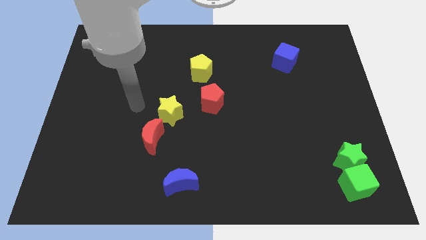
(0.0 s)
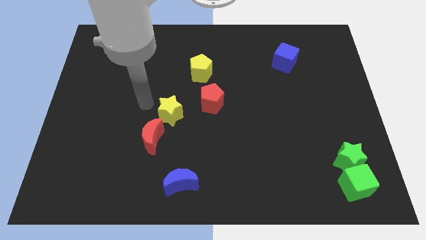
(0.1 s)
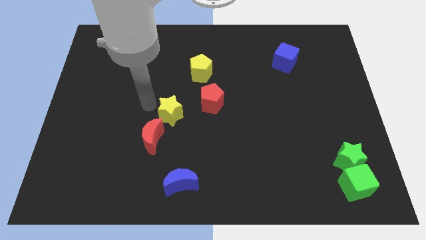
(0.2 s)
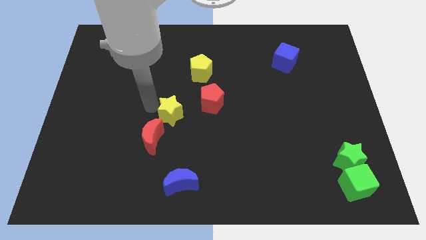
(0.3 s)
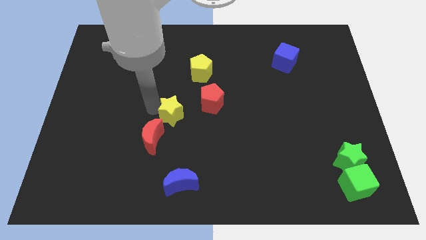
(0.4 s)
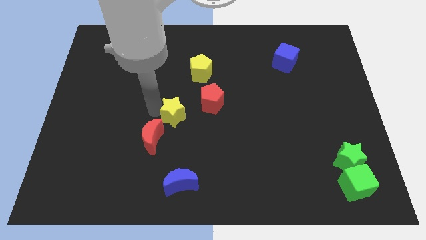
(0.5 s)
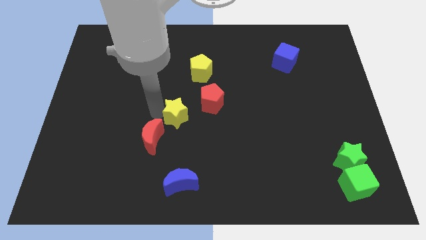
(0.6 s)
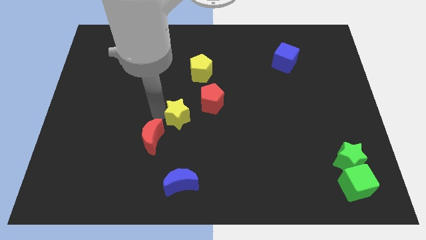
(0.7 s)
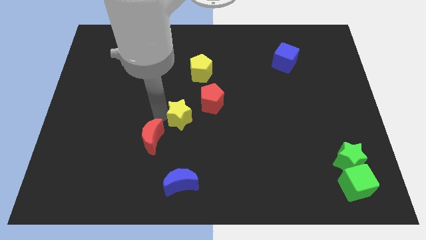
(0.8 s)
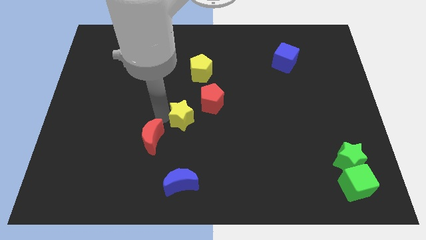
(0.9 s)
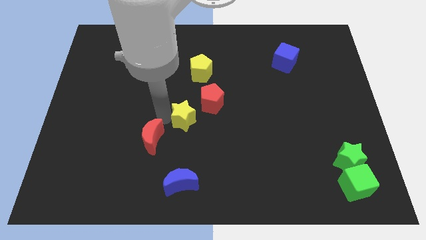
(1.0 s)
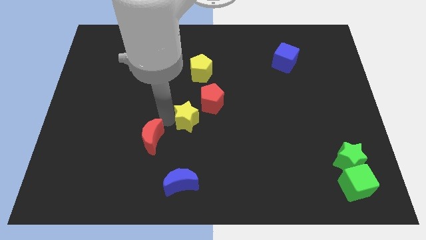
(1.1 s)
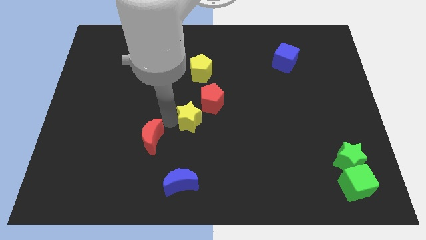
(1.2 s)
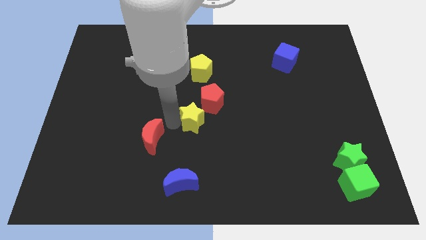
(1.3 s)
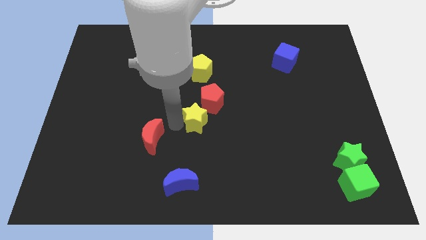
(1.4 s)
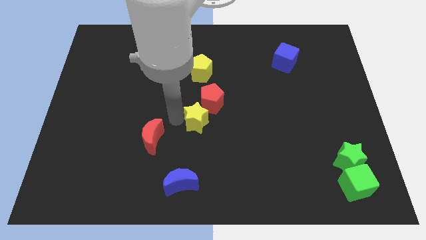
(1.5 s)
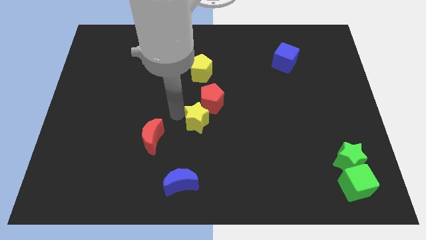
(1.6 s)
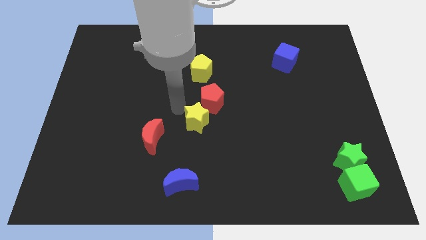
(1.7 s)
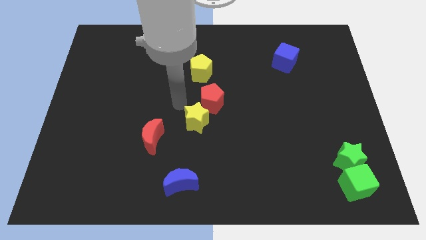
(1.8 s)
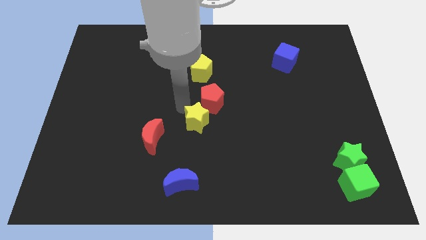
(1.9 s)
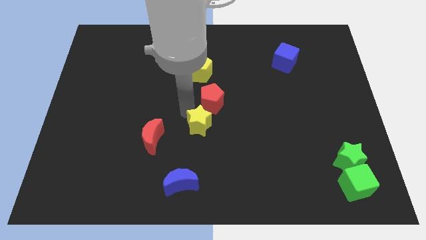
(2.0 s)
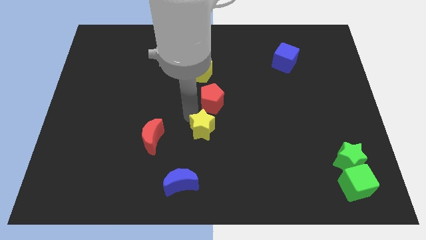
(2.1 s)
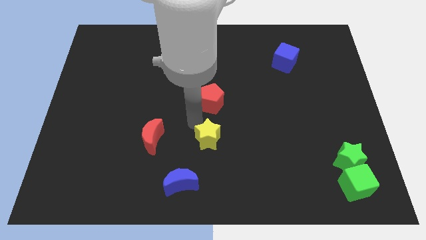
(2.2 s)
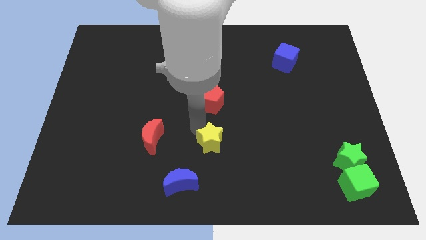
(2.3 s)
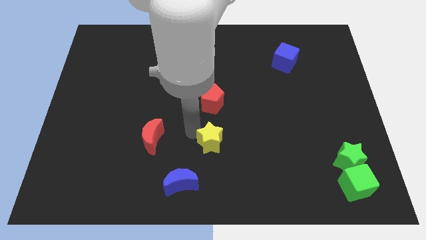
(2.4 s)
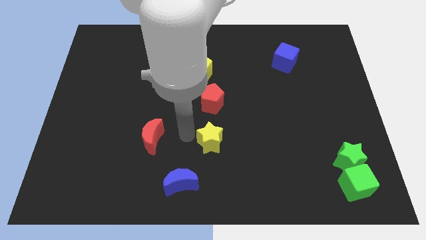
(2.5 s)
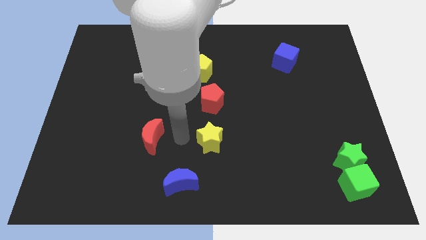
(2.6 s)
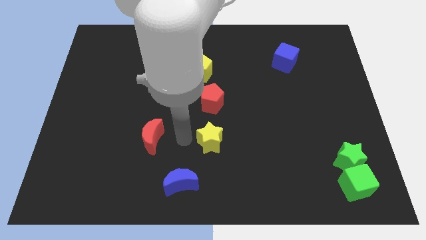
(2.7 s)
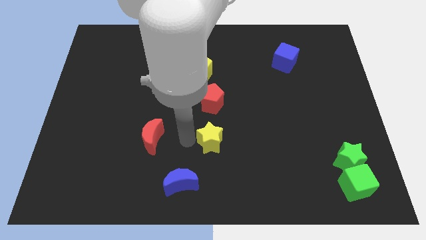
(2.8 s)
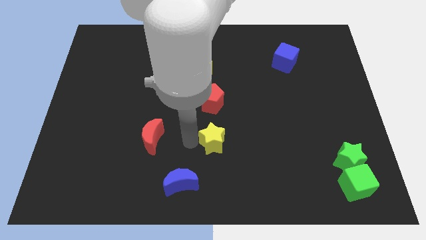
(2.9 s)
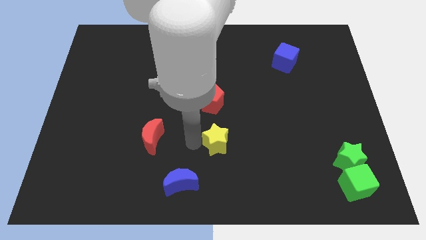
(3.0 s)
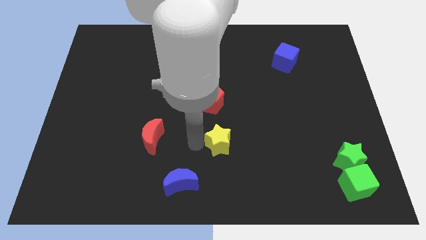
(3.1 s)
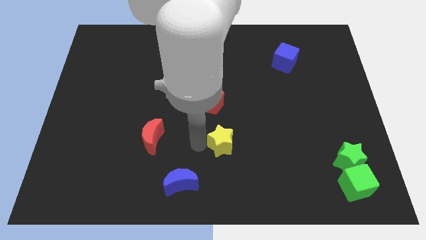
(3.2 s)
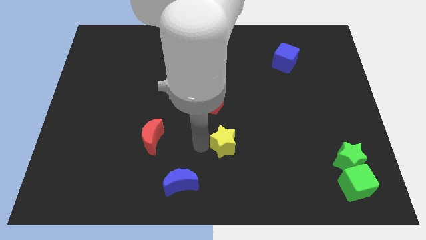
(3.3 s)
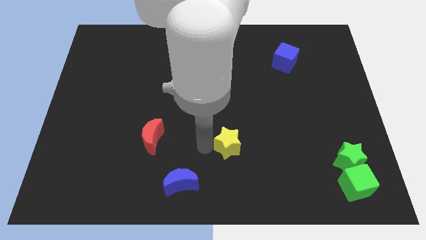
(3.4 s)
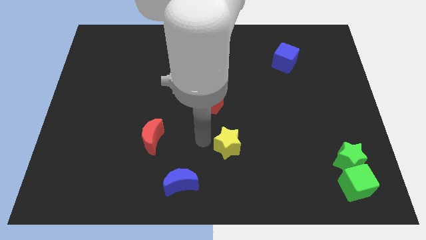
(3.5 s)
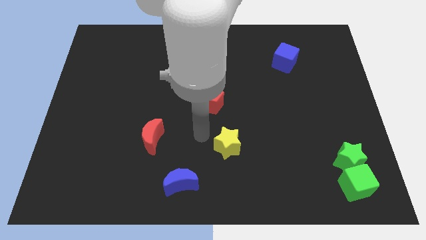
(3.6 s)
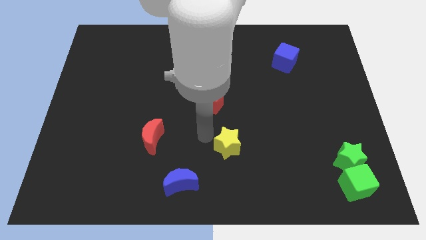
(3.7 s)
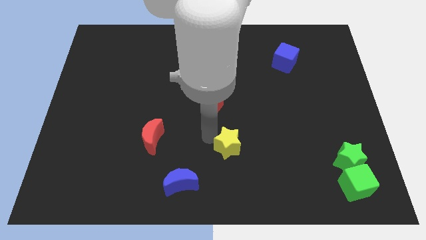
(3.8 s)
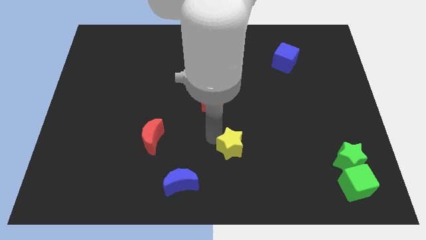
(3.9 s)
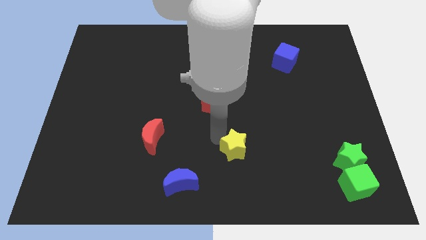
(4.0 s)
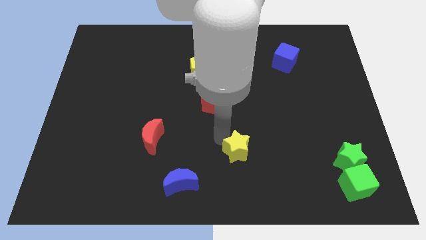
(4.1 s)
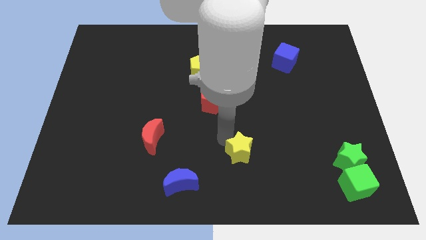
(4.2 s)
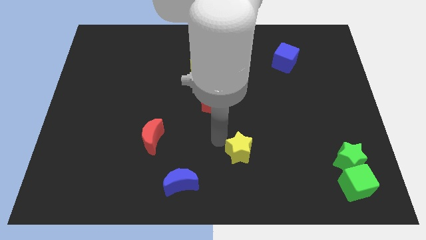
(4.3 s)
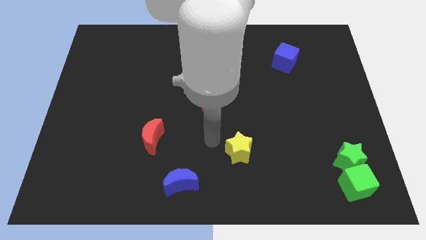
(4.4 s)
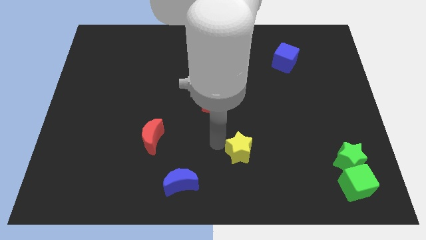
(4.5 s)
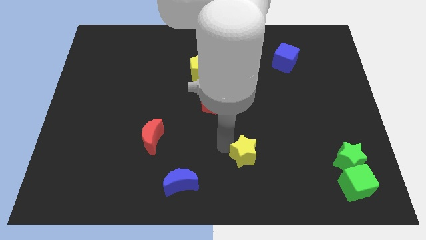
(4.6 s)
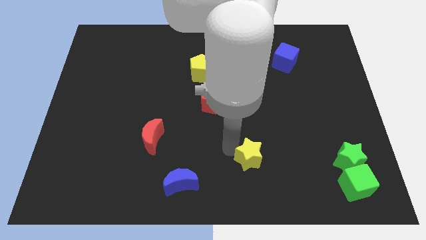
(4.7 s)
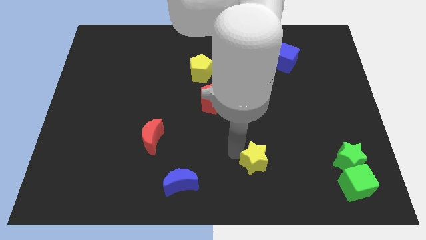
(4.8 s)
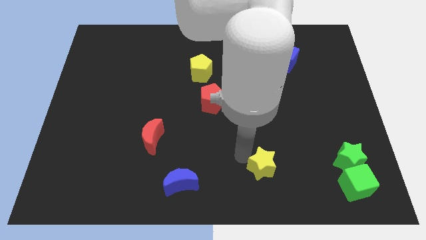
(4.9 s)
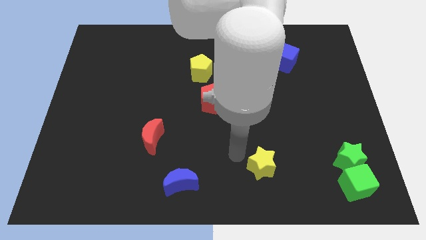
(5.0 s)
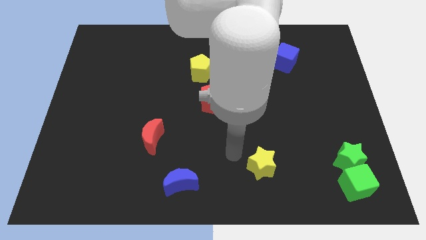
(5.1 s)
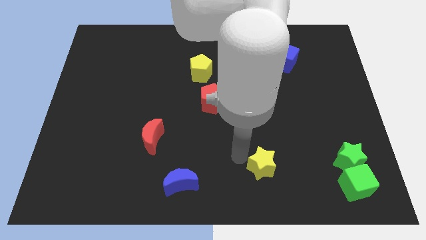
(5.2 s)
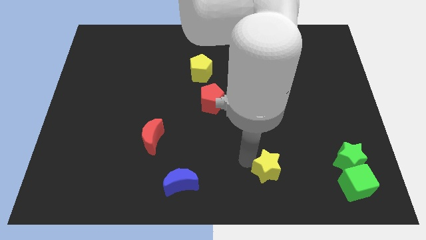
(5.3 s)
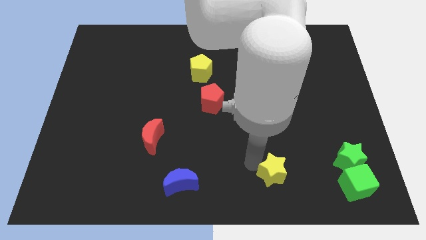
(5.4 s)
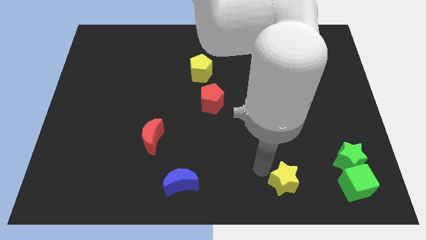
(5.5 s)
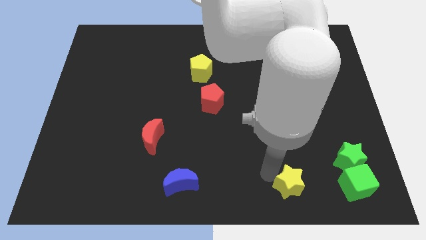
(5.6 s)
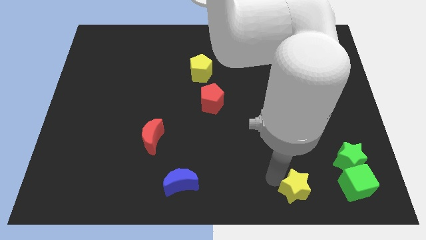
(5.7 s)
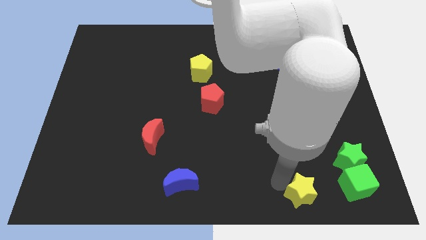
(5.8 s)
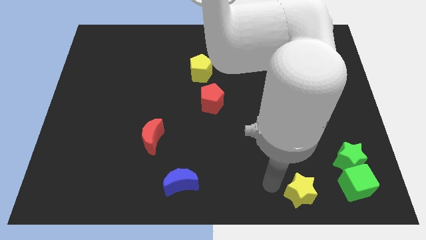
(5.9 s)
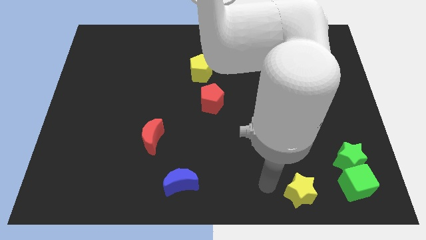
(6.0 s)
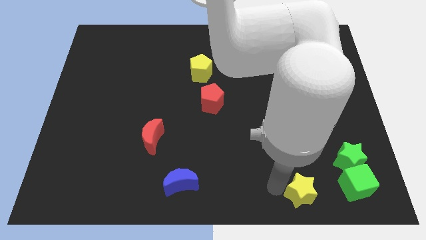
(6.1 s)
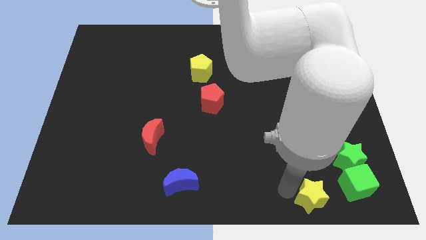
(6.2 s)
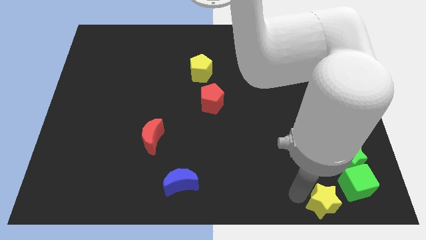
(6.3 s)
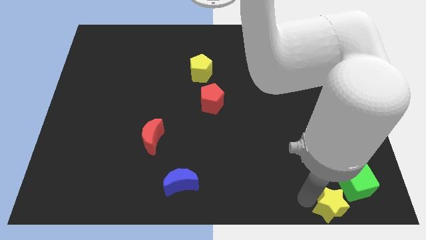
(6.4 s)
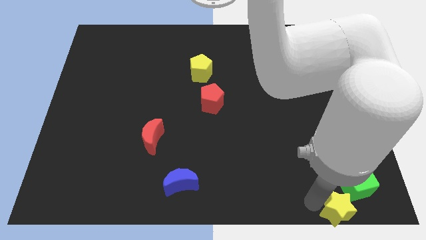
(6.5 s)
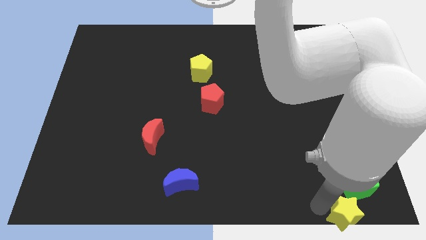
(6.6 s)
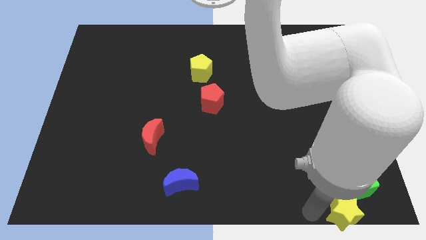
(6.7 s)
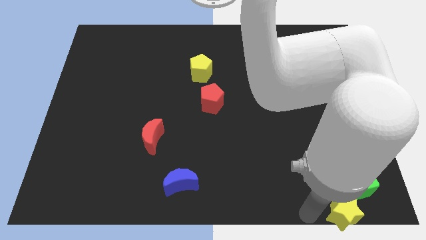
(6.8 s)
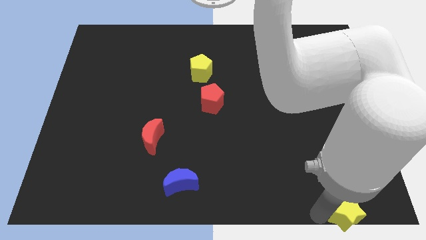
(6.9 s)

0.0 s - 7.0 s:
slide the yellow star to the lower right corner
